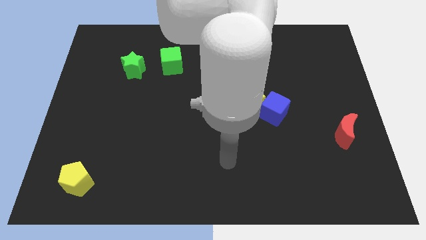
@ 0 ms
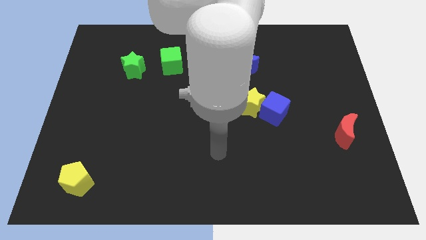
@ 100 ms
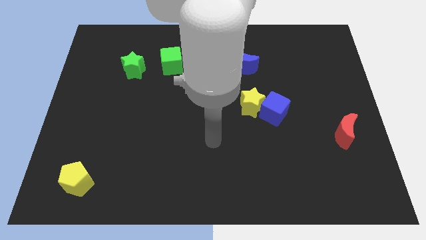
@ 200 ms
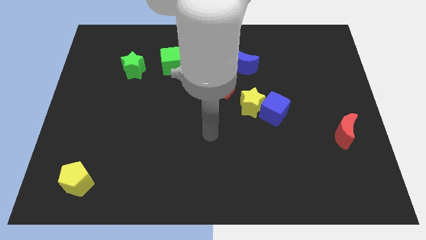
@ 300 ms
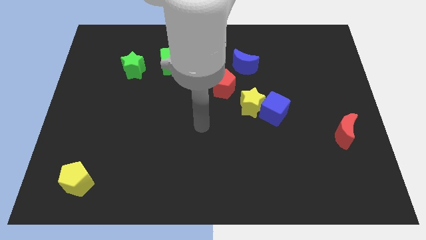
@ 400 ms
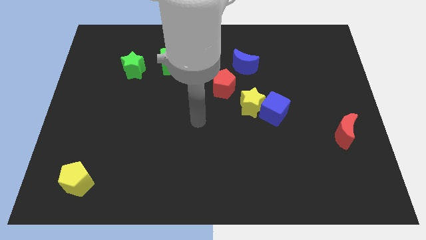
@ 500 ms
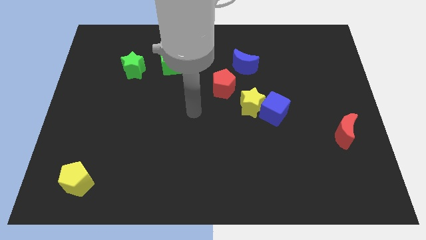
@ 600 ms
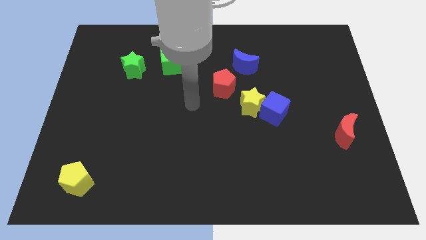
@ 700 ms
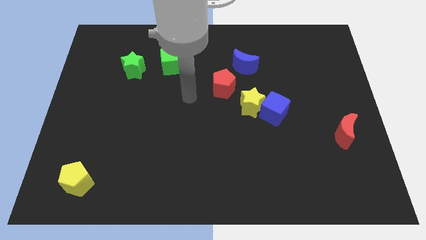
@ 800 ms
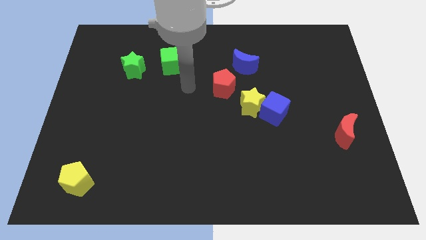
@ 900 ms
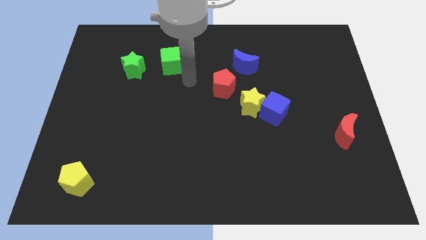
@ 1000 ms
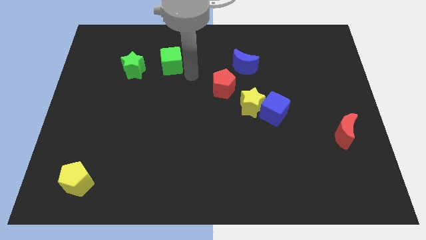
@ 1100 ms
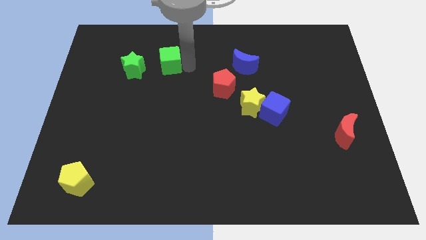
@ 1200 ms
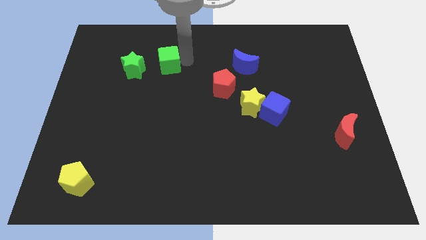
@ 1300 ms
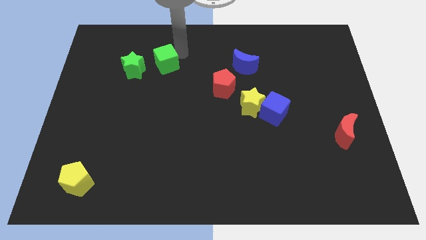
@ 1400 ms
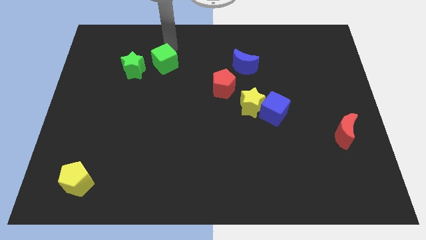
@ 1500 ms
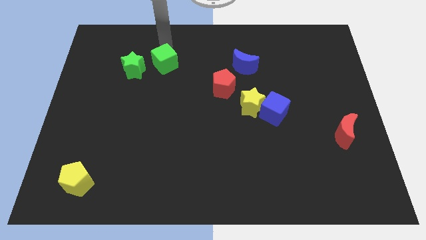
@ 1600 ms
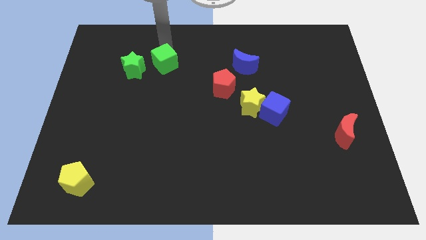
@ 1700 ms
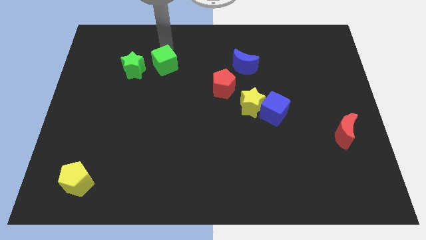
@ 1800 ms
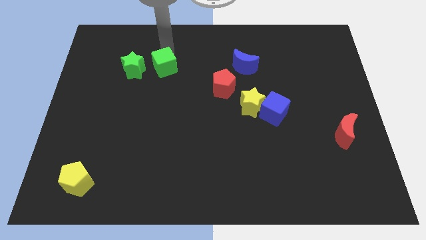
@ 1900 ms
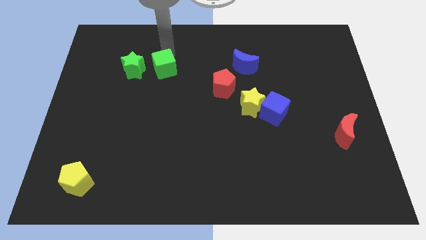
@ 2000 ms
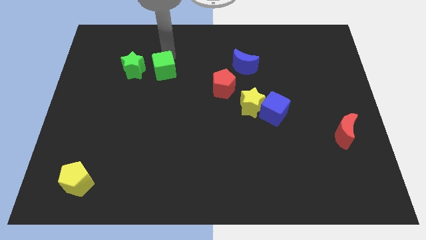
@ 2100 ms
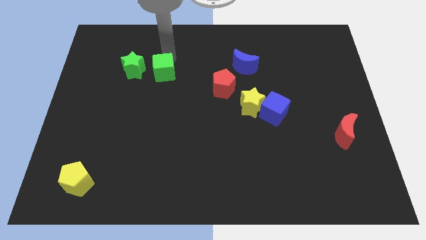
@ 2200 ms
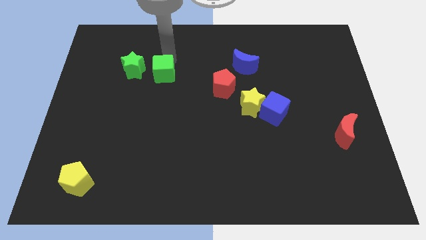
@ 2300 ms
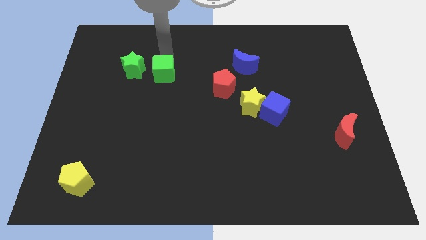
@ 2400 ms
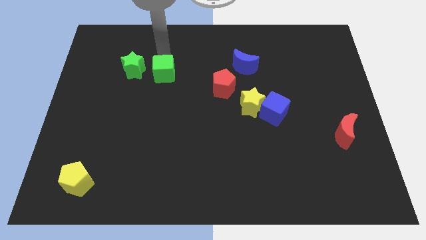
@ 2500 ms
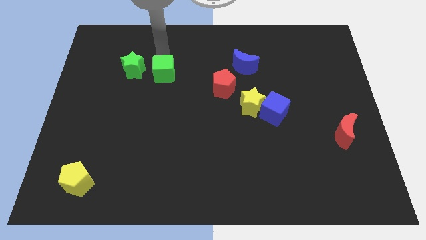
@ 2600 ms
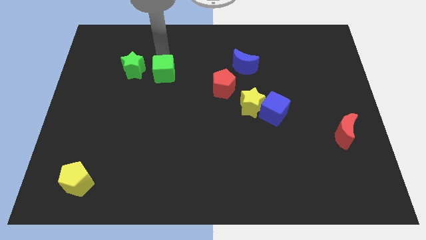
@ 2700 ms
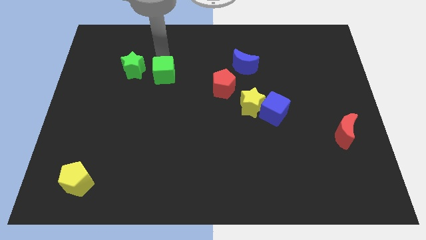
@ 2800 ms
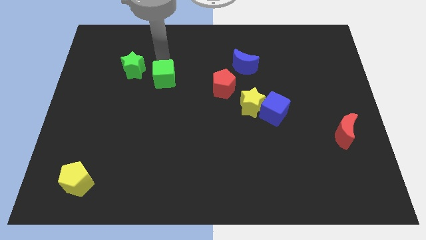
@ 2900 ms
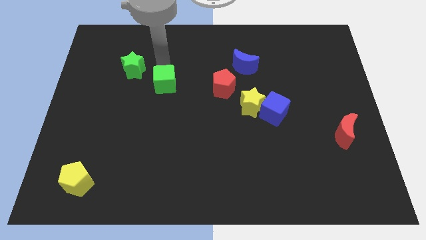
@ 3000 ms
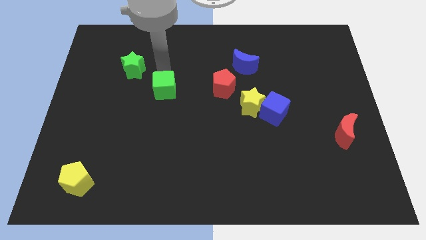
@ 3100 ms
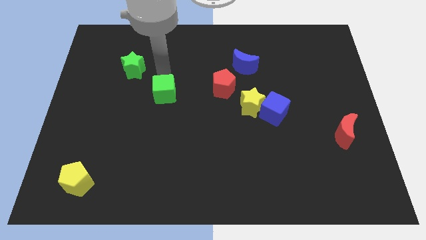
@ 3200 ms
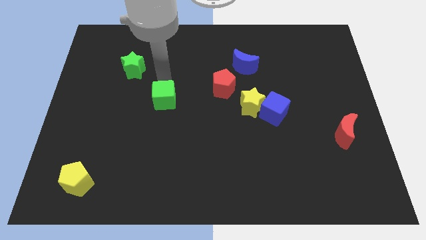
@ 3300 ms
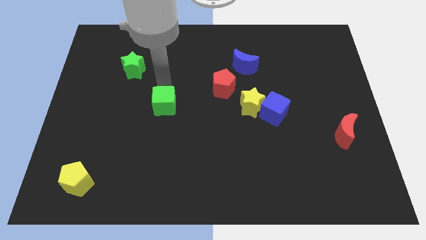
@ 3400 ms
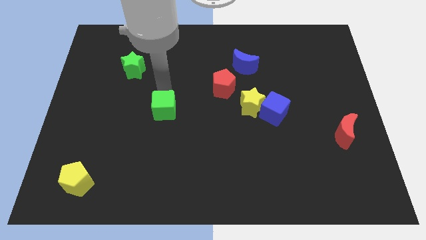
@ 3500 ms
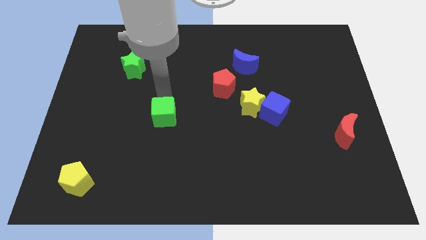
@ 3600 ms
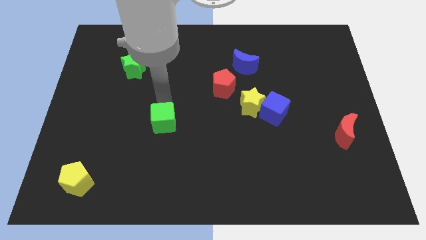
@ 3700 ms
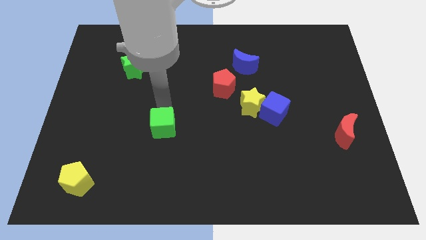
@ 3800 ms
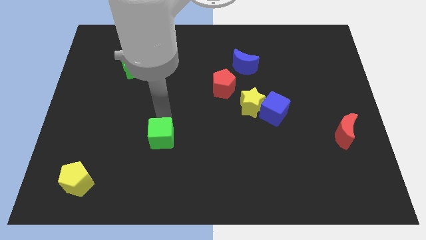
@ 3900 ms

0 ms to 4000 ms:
move the green cube down

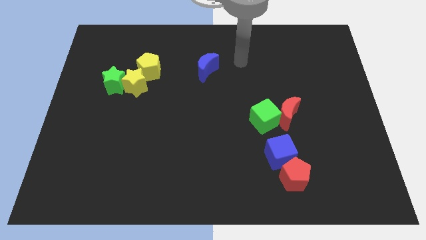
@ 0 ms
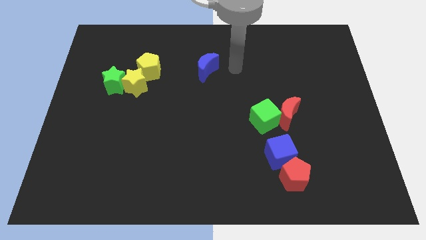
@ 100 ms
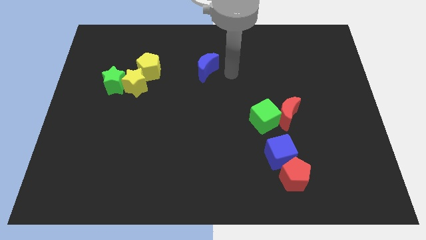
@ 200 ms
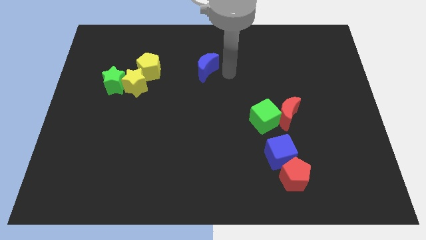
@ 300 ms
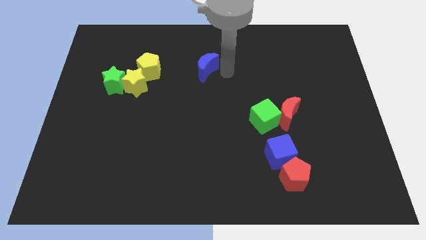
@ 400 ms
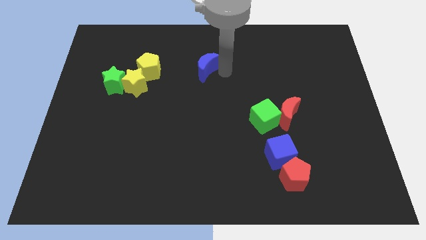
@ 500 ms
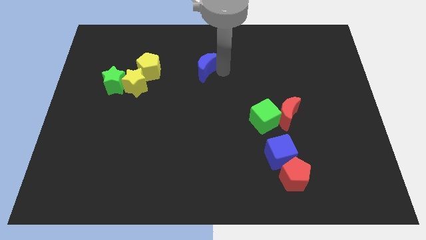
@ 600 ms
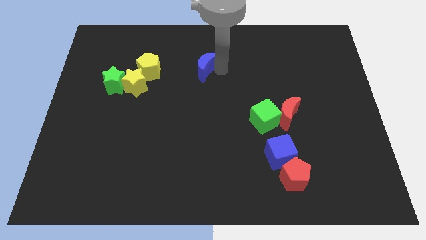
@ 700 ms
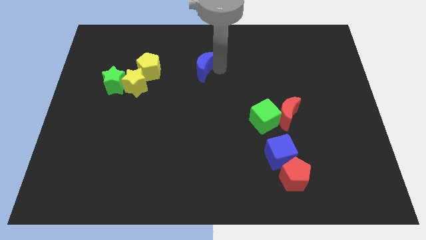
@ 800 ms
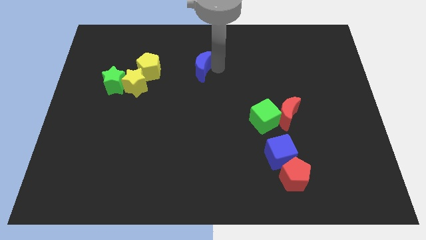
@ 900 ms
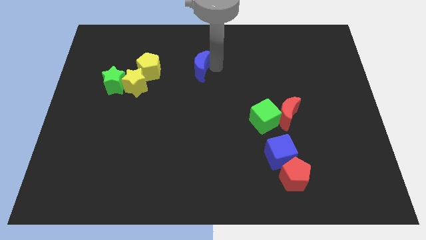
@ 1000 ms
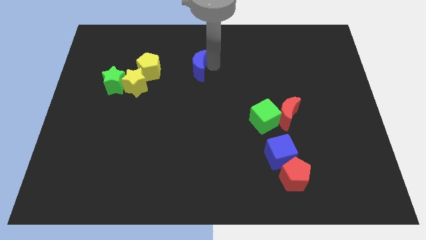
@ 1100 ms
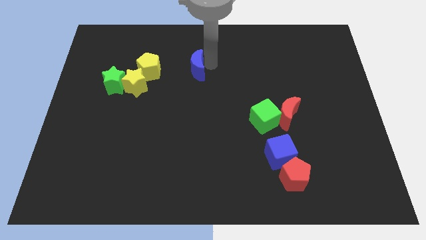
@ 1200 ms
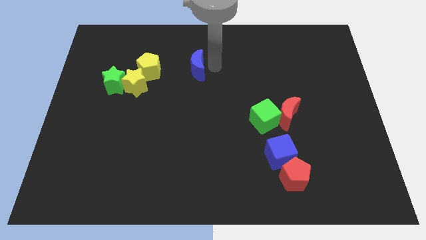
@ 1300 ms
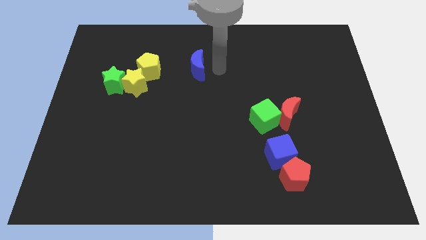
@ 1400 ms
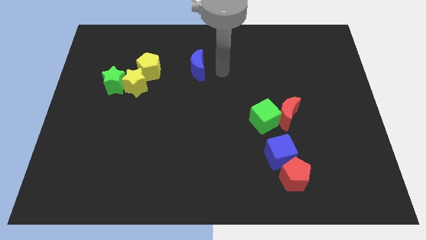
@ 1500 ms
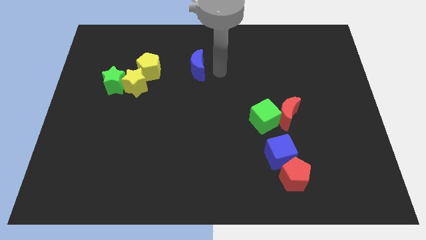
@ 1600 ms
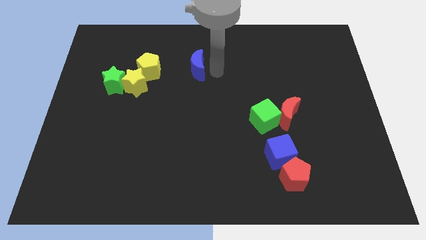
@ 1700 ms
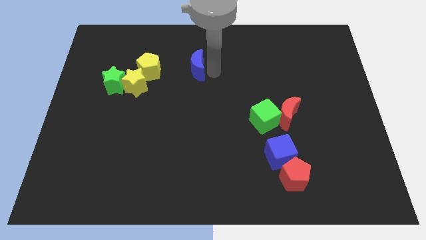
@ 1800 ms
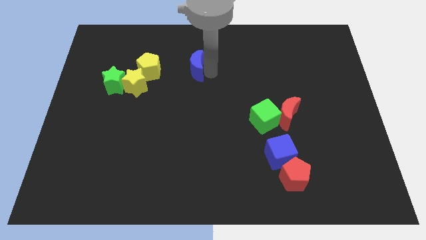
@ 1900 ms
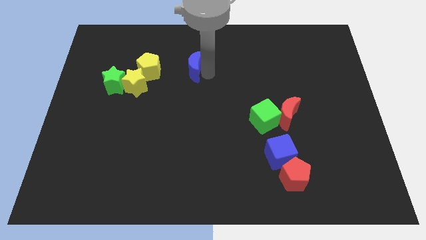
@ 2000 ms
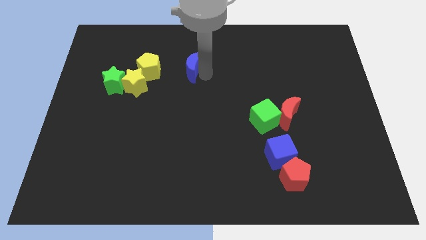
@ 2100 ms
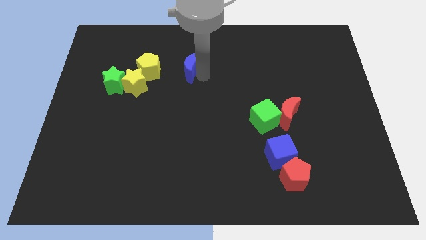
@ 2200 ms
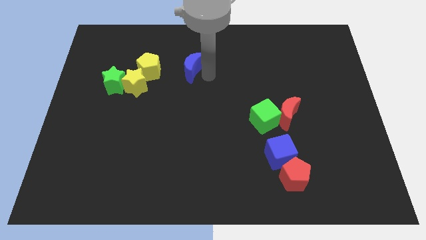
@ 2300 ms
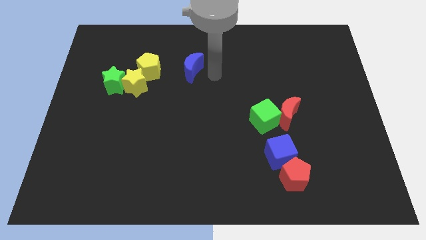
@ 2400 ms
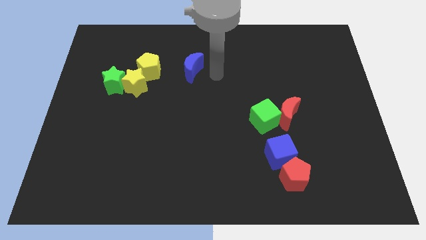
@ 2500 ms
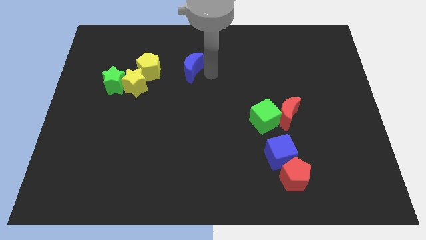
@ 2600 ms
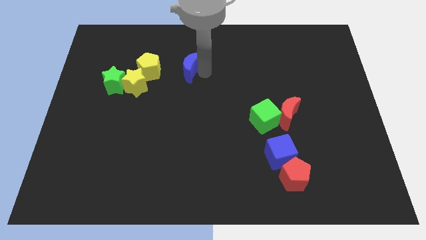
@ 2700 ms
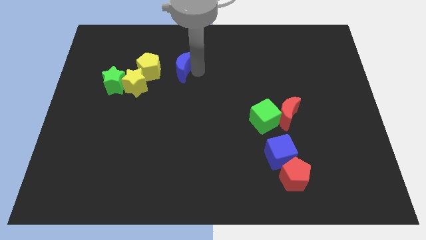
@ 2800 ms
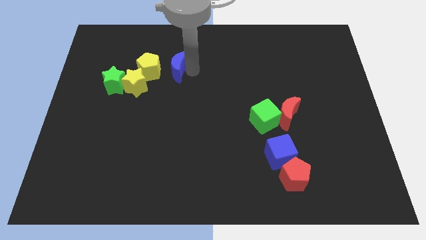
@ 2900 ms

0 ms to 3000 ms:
move the blue moon a little bit left

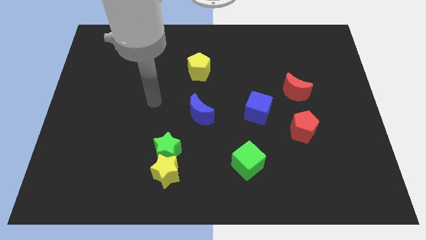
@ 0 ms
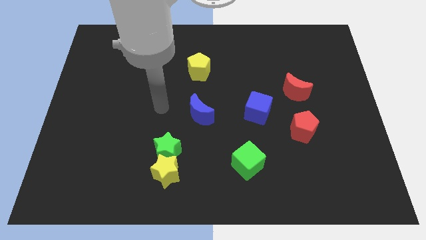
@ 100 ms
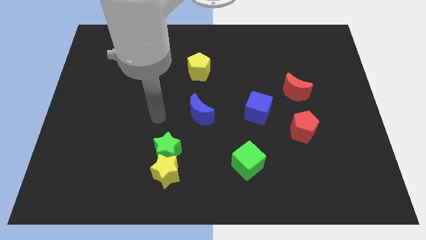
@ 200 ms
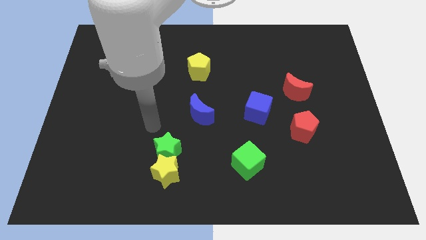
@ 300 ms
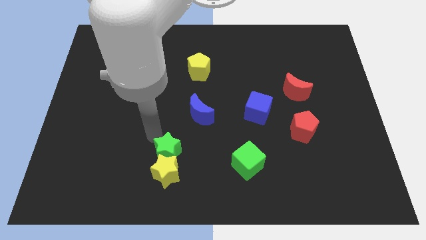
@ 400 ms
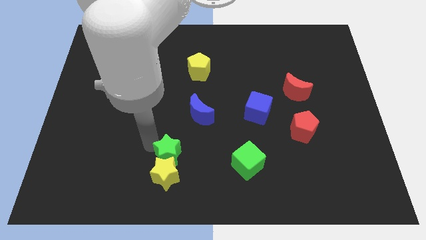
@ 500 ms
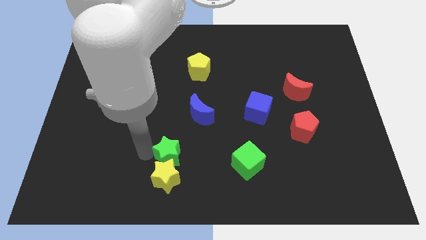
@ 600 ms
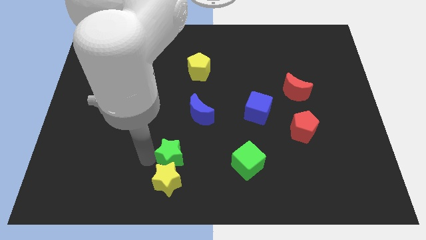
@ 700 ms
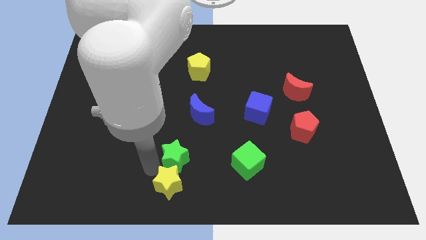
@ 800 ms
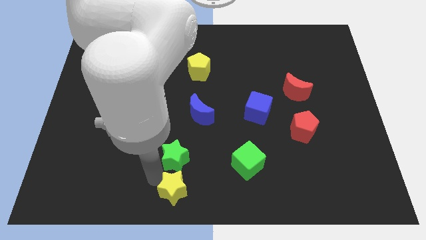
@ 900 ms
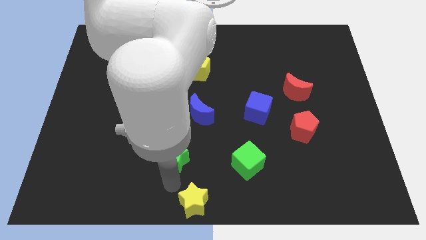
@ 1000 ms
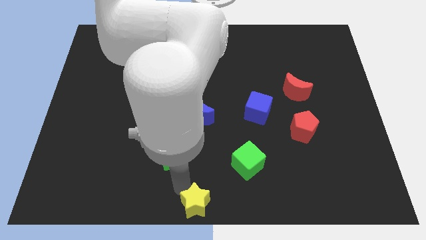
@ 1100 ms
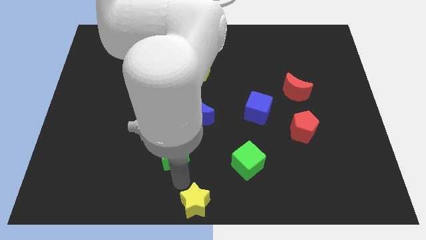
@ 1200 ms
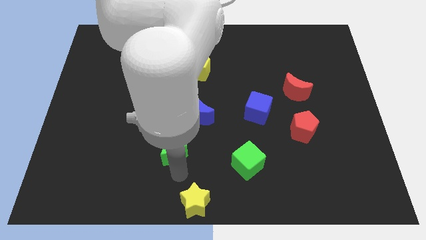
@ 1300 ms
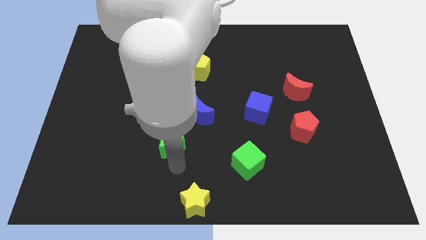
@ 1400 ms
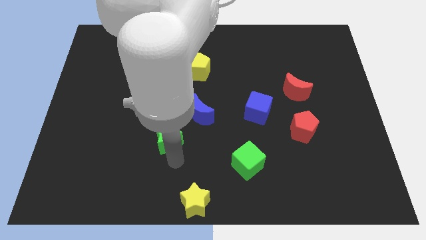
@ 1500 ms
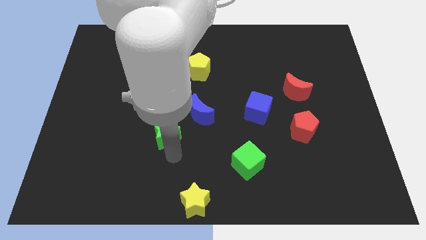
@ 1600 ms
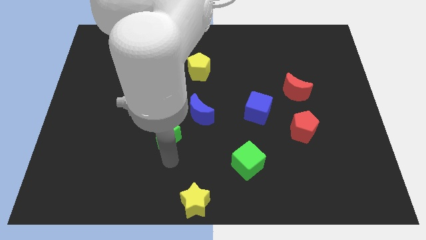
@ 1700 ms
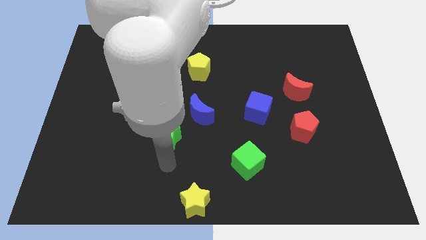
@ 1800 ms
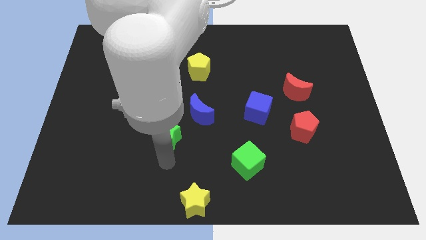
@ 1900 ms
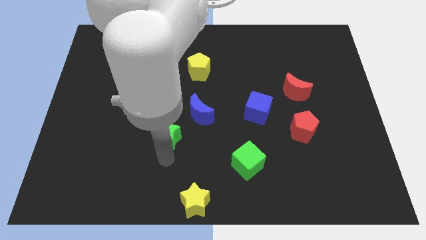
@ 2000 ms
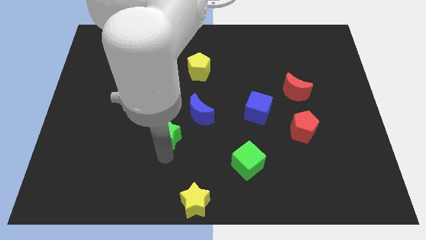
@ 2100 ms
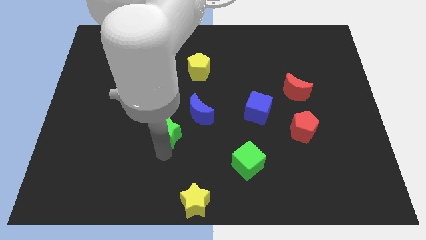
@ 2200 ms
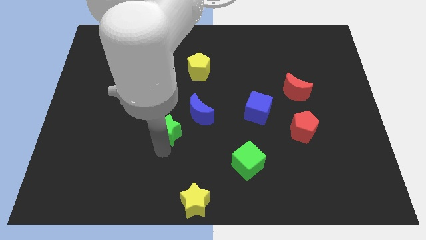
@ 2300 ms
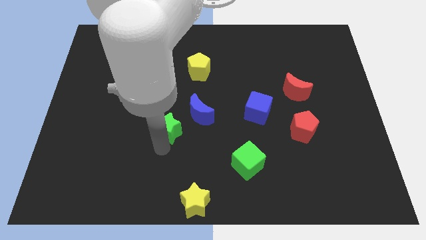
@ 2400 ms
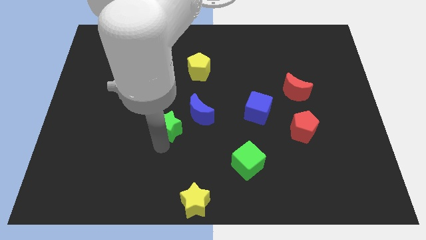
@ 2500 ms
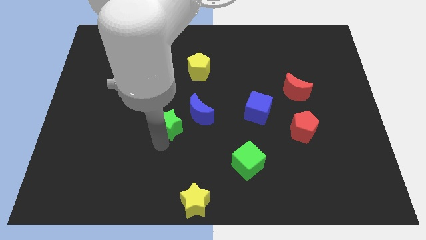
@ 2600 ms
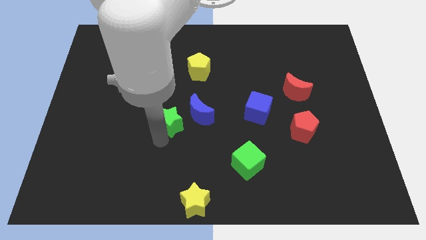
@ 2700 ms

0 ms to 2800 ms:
push the green star slightly upwards
